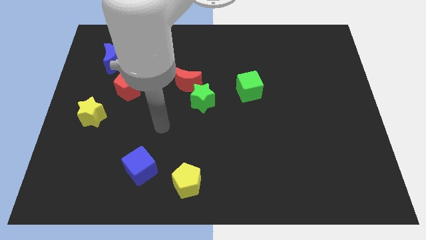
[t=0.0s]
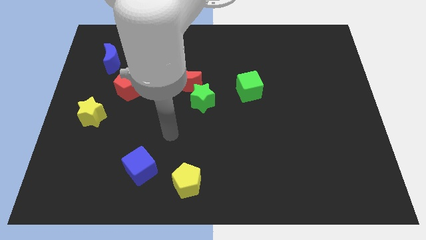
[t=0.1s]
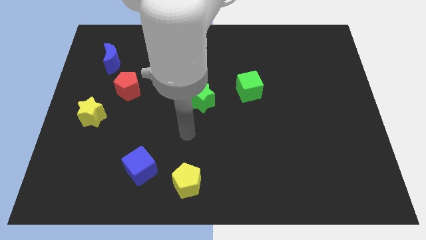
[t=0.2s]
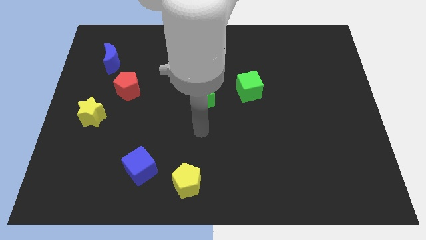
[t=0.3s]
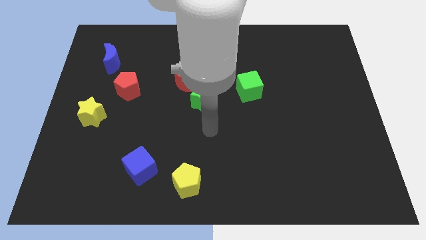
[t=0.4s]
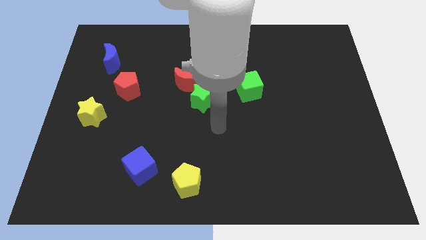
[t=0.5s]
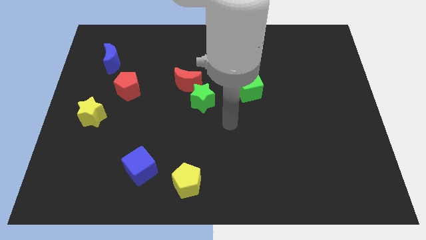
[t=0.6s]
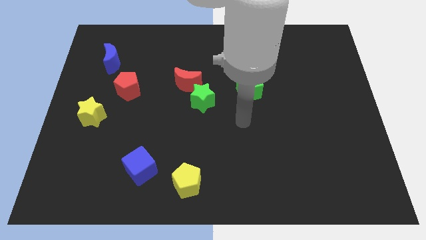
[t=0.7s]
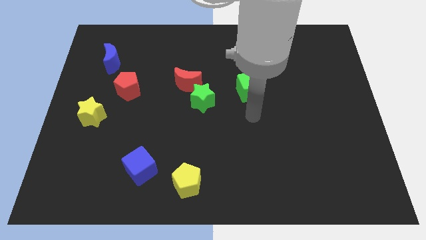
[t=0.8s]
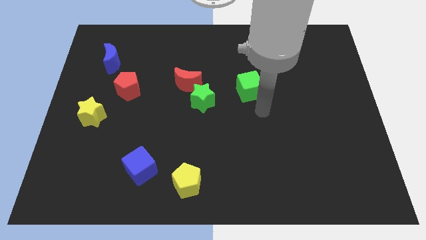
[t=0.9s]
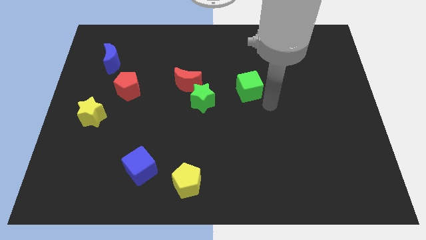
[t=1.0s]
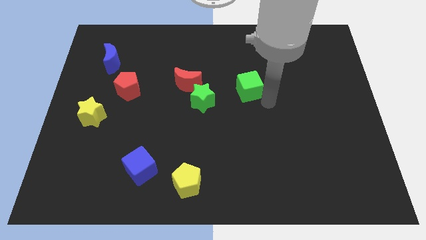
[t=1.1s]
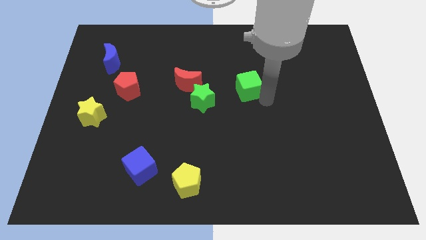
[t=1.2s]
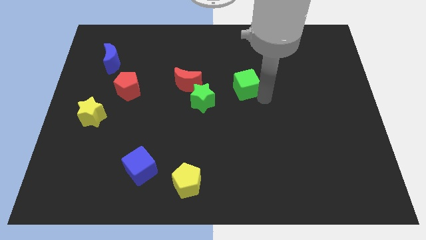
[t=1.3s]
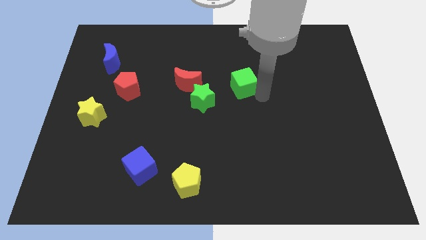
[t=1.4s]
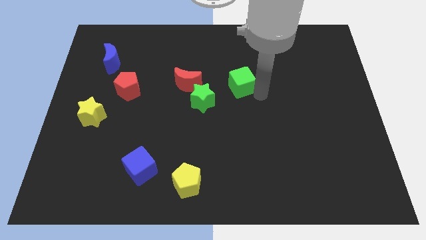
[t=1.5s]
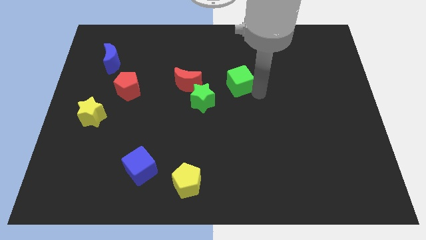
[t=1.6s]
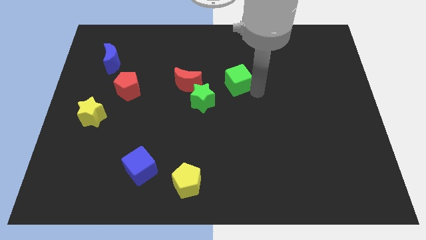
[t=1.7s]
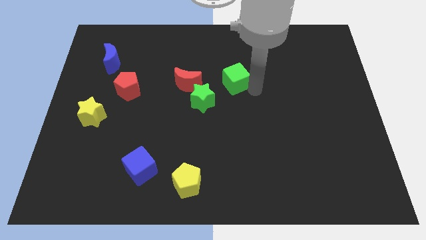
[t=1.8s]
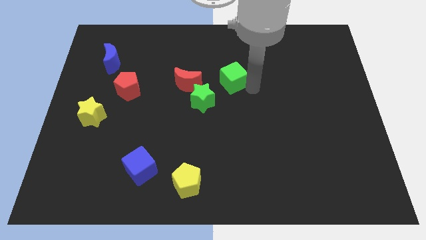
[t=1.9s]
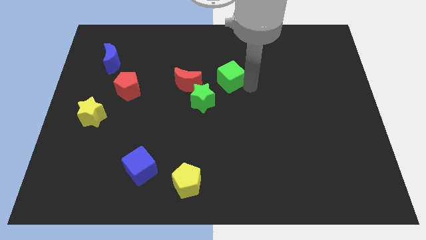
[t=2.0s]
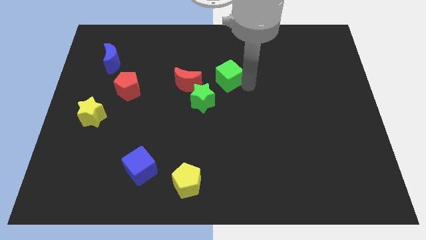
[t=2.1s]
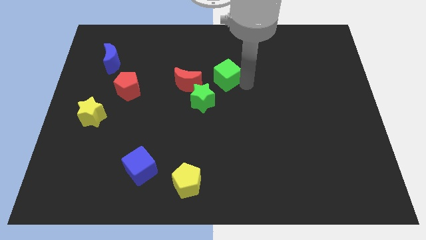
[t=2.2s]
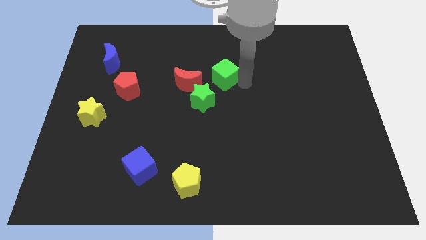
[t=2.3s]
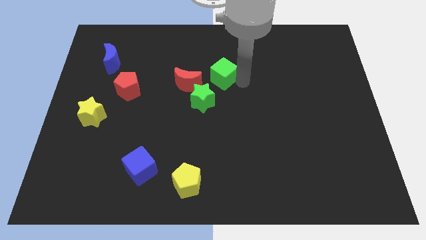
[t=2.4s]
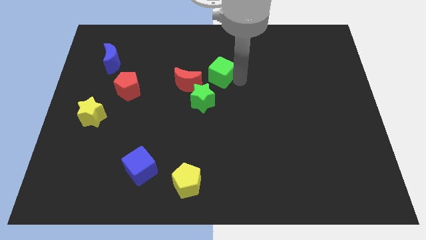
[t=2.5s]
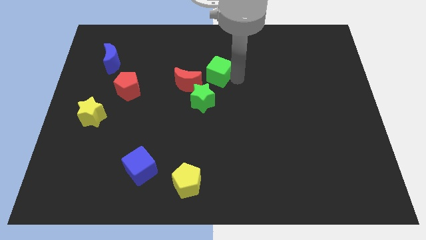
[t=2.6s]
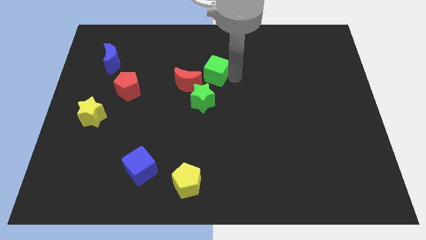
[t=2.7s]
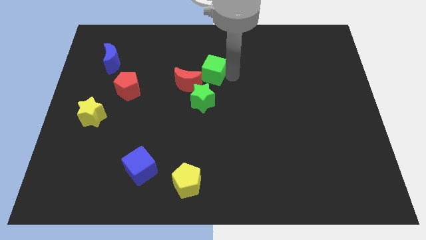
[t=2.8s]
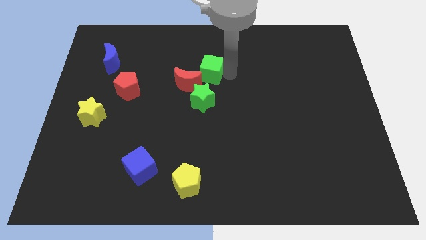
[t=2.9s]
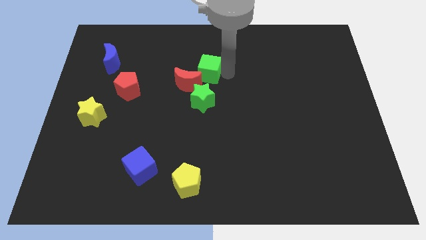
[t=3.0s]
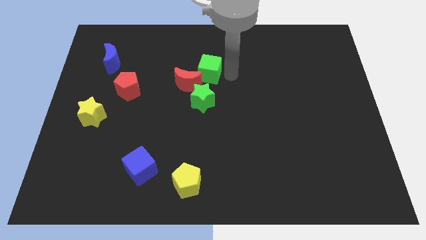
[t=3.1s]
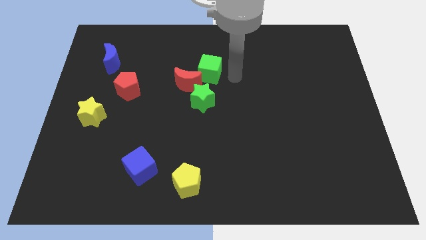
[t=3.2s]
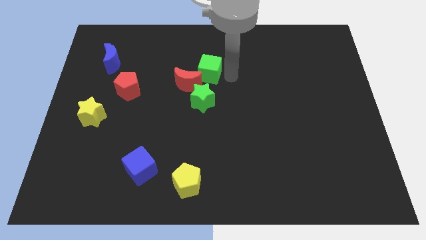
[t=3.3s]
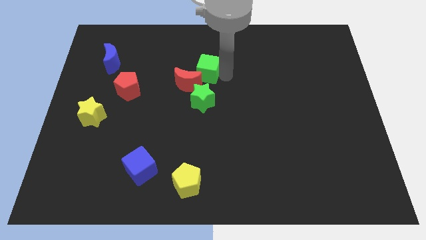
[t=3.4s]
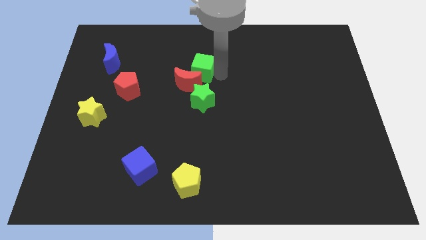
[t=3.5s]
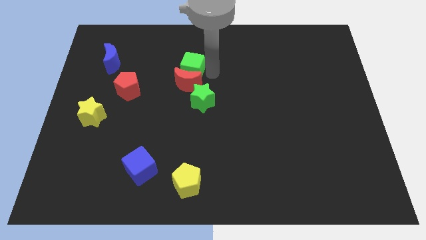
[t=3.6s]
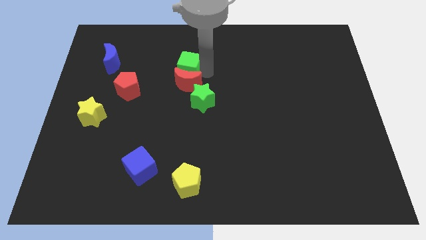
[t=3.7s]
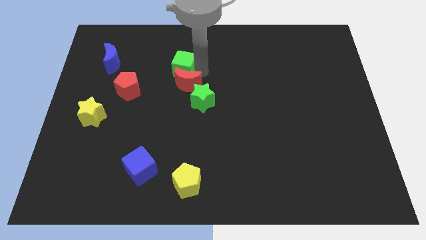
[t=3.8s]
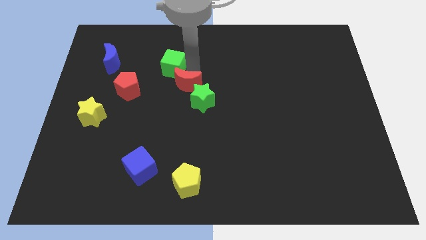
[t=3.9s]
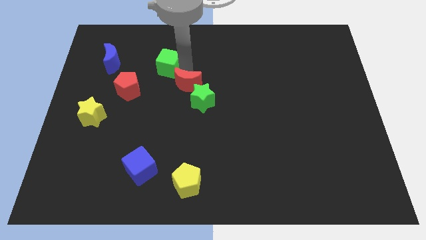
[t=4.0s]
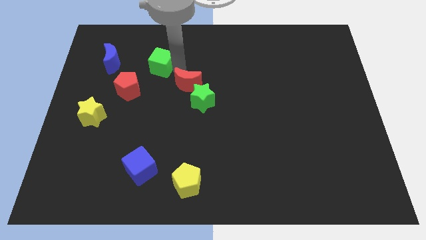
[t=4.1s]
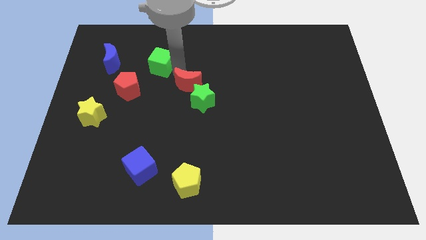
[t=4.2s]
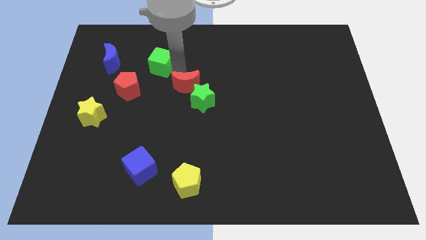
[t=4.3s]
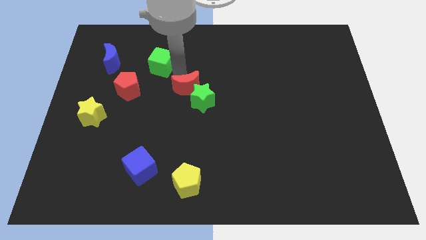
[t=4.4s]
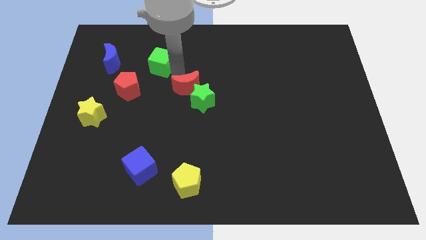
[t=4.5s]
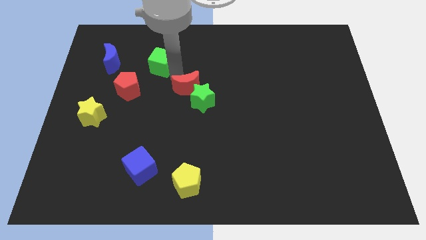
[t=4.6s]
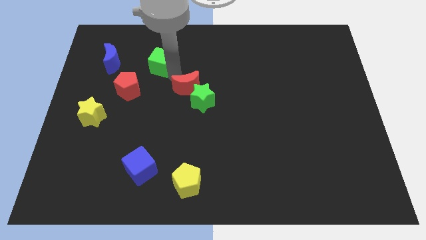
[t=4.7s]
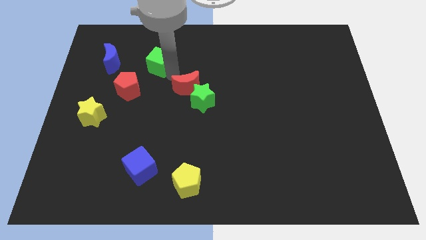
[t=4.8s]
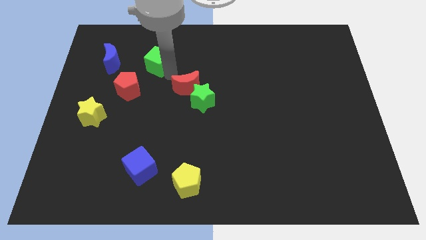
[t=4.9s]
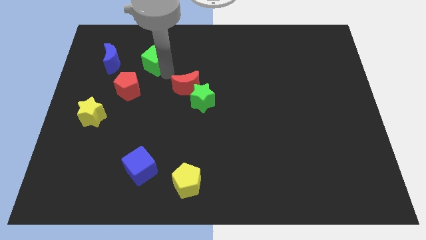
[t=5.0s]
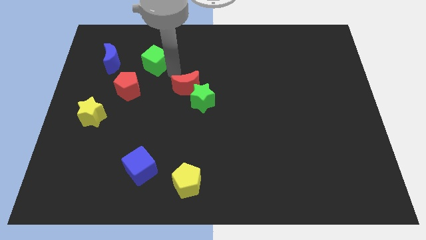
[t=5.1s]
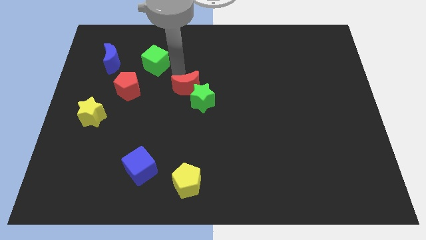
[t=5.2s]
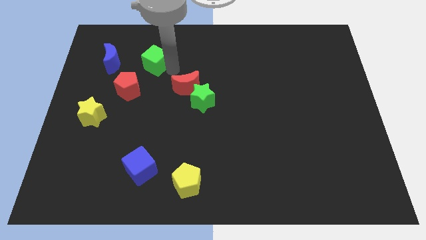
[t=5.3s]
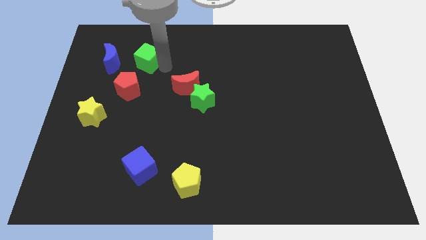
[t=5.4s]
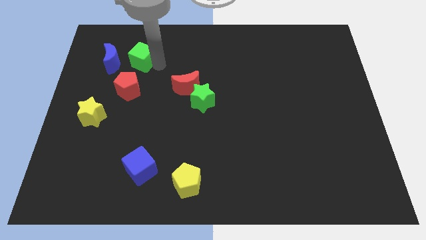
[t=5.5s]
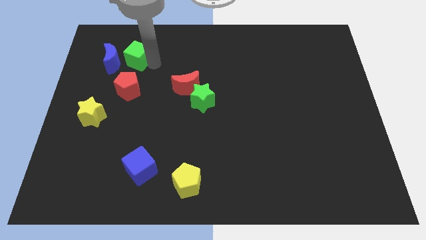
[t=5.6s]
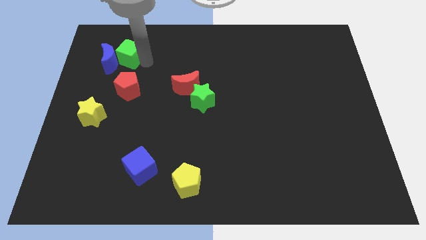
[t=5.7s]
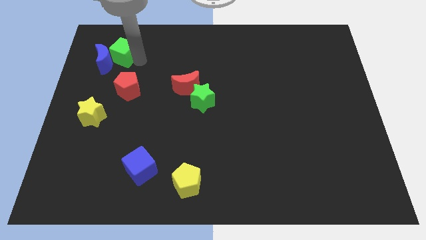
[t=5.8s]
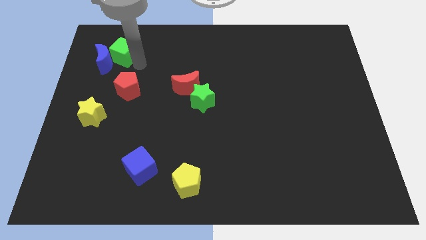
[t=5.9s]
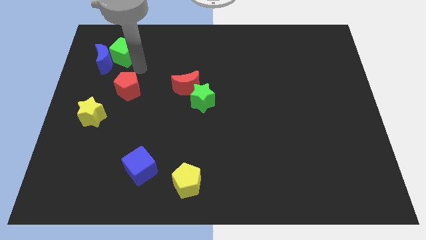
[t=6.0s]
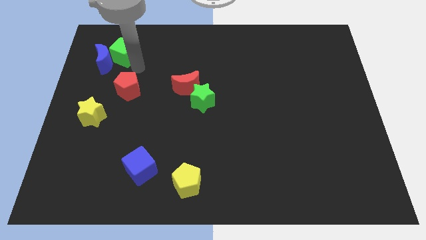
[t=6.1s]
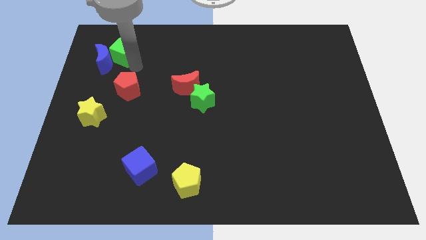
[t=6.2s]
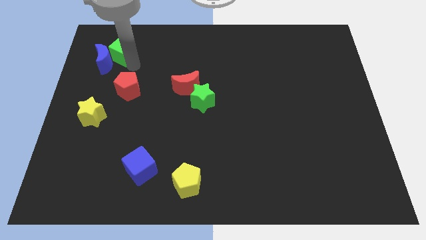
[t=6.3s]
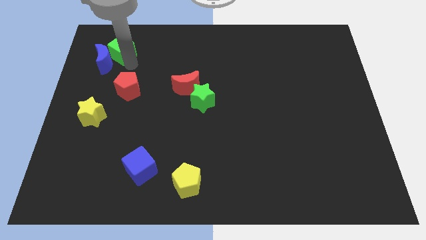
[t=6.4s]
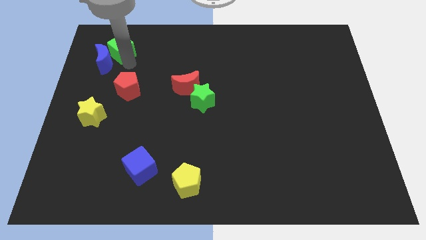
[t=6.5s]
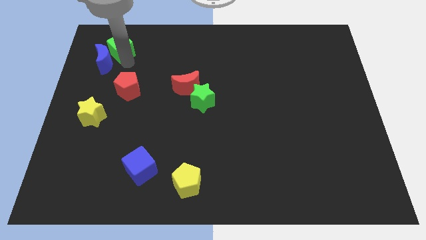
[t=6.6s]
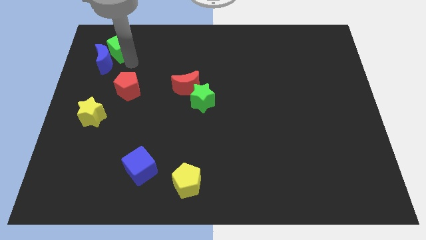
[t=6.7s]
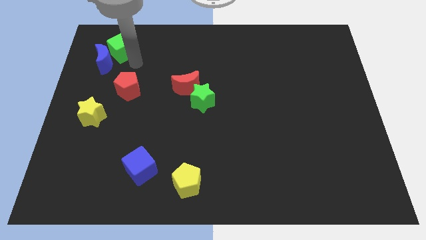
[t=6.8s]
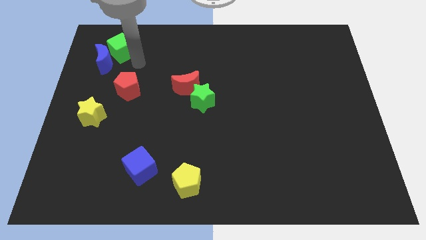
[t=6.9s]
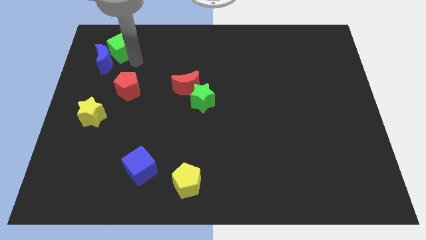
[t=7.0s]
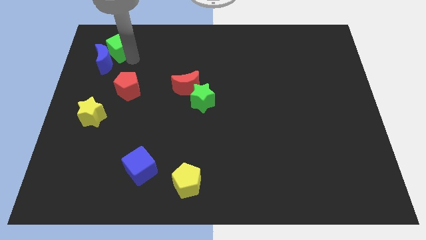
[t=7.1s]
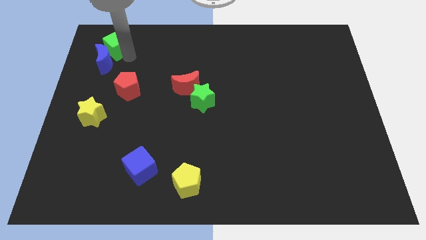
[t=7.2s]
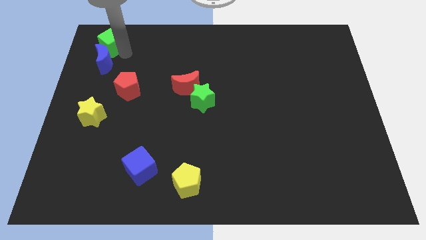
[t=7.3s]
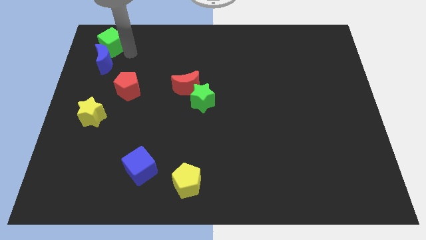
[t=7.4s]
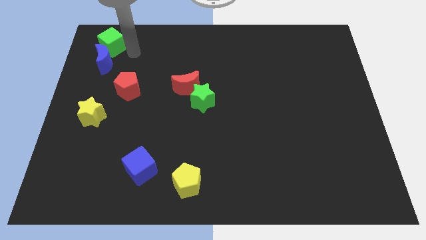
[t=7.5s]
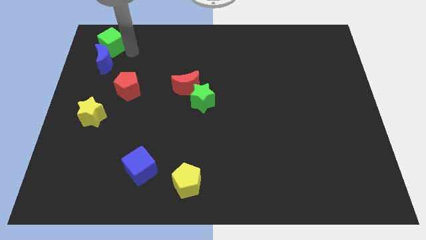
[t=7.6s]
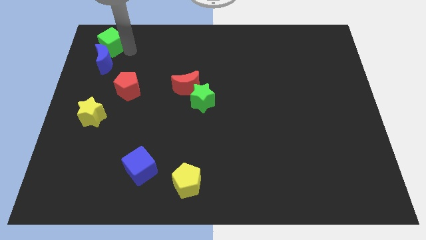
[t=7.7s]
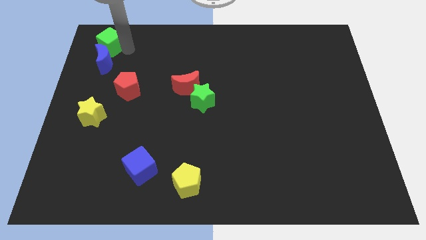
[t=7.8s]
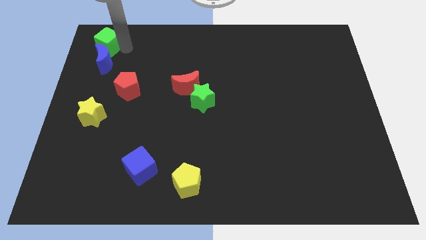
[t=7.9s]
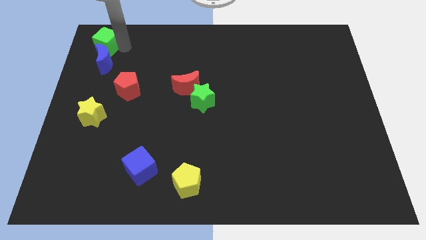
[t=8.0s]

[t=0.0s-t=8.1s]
slide the green cube to the top left
